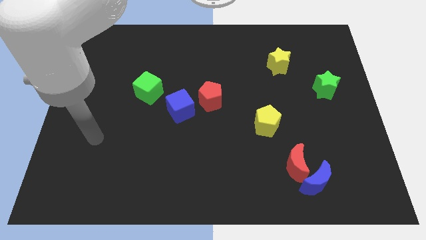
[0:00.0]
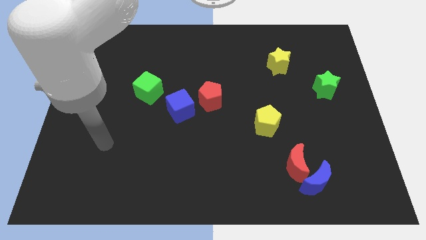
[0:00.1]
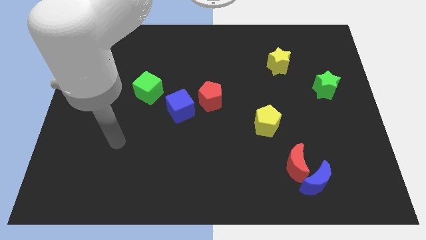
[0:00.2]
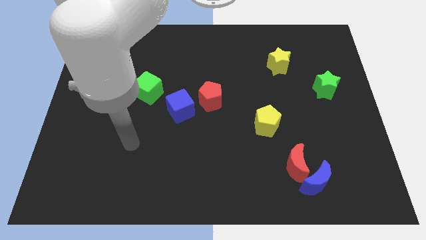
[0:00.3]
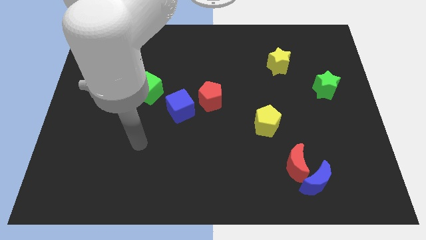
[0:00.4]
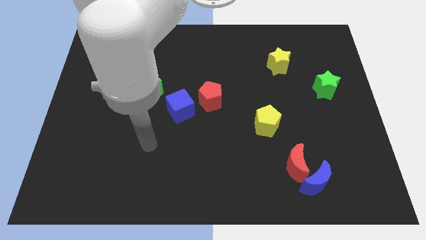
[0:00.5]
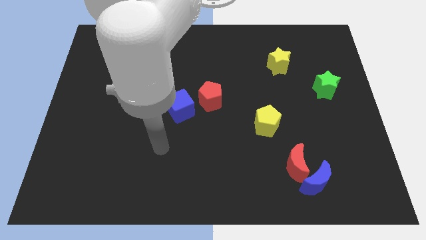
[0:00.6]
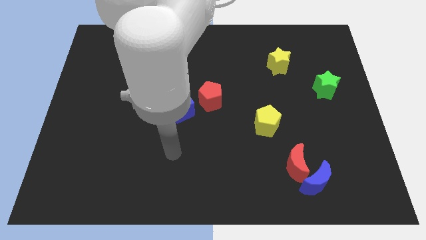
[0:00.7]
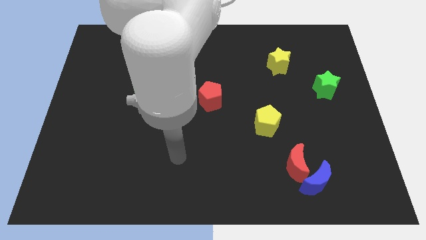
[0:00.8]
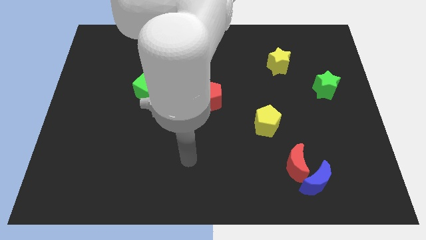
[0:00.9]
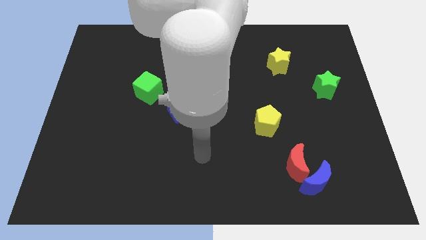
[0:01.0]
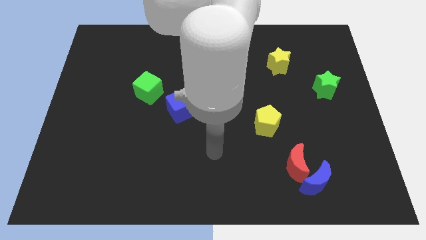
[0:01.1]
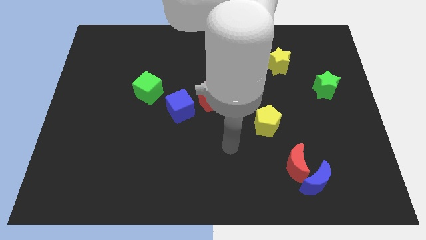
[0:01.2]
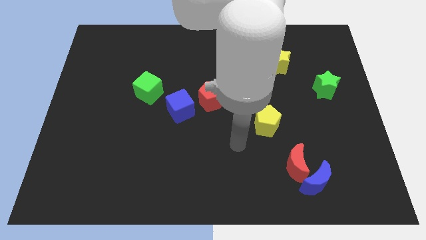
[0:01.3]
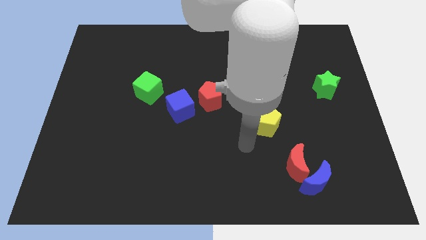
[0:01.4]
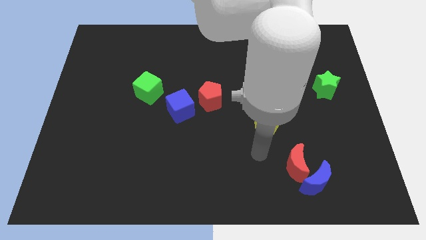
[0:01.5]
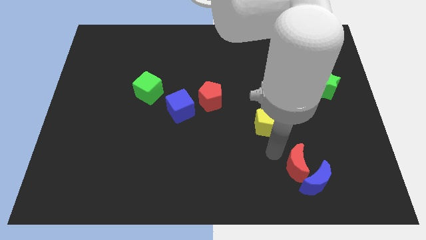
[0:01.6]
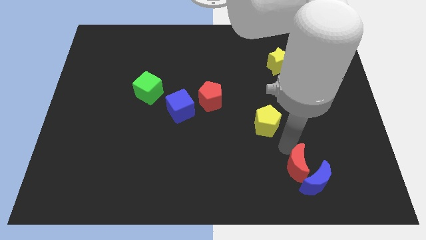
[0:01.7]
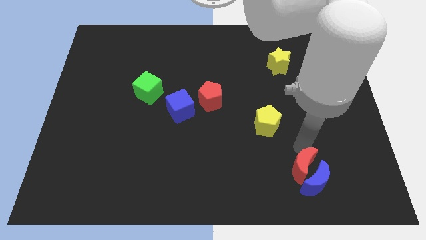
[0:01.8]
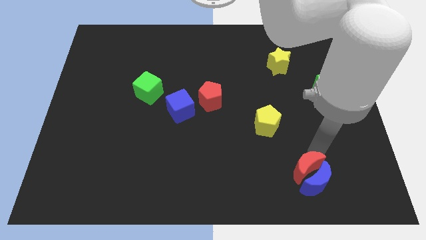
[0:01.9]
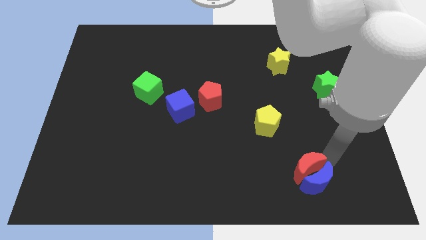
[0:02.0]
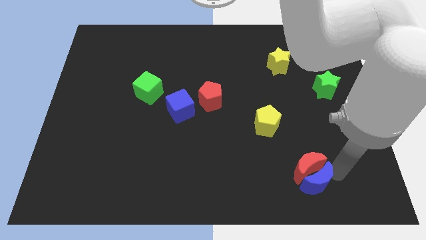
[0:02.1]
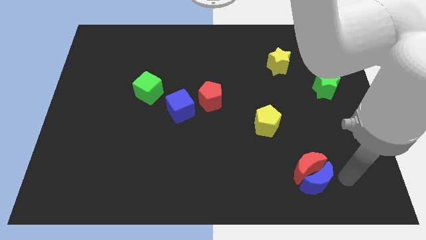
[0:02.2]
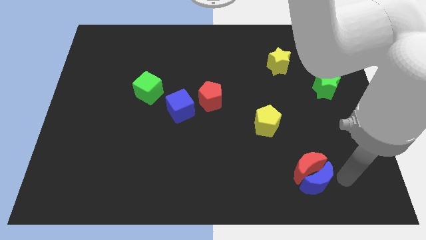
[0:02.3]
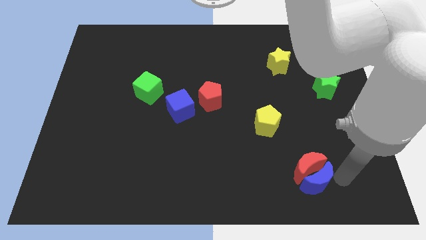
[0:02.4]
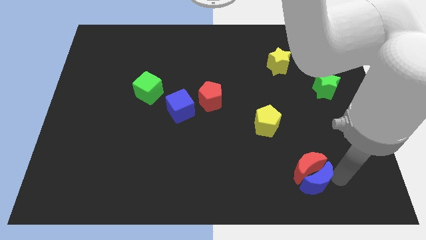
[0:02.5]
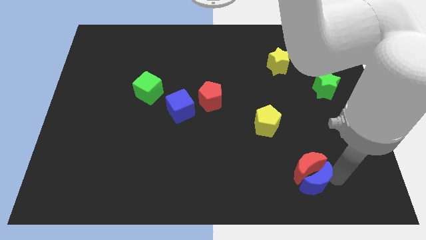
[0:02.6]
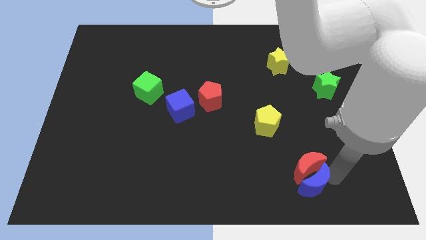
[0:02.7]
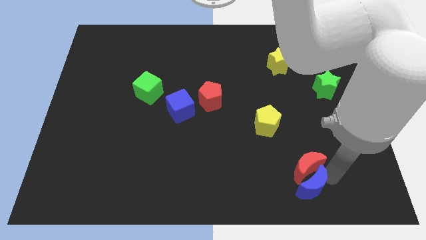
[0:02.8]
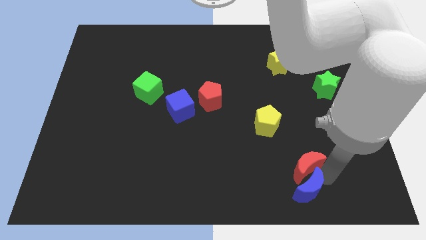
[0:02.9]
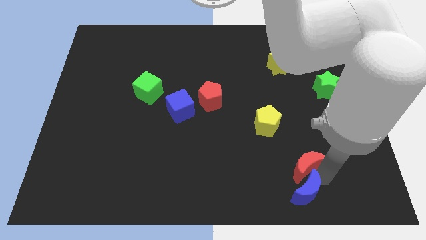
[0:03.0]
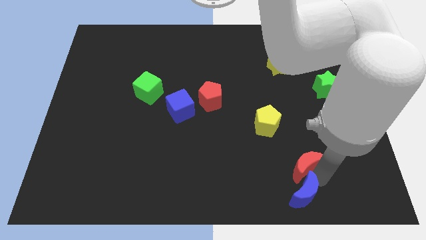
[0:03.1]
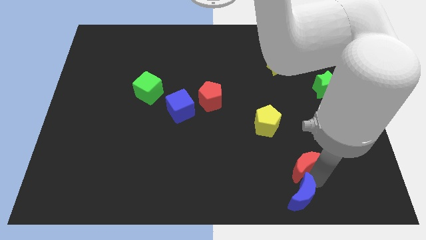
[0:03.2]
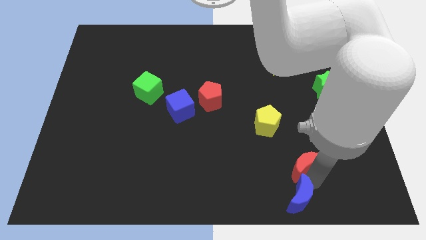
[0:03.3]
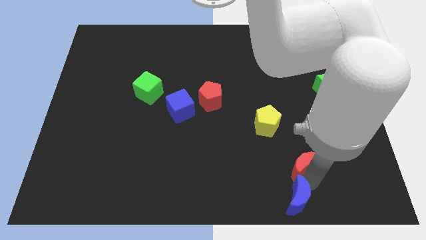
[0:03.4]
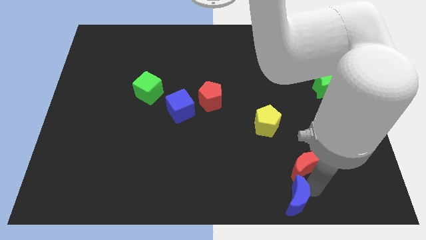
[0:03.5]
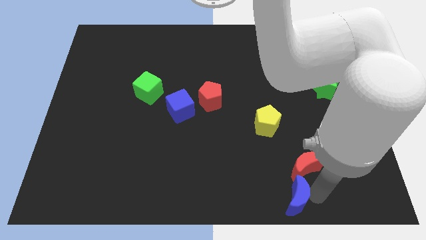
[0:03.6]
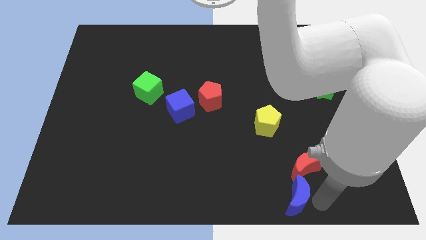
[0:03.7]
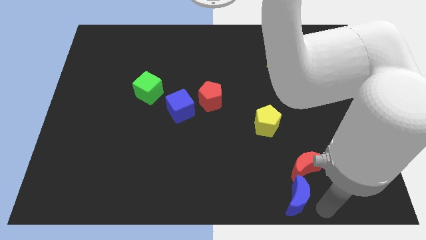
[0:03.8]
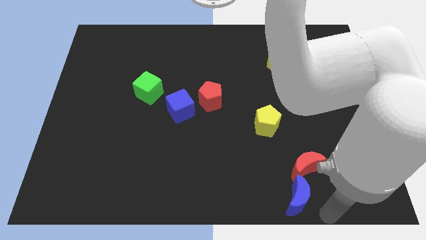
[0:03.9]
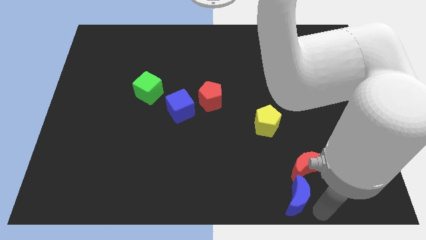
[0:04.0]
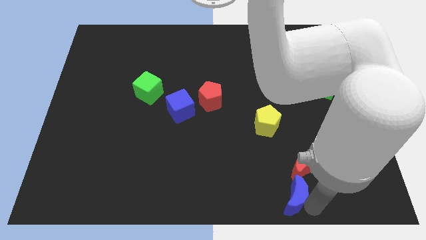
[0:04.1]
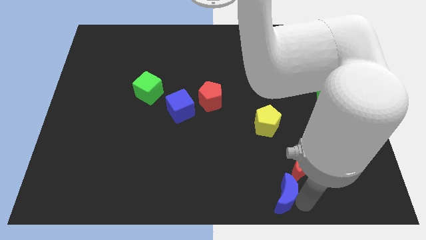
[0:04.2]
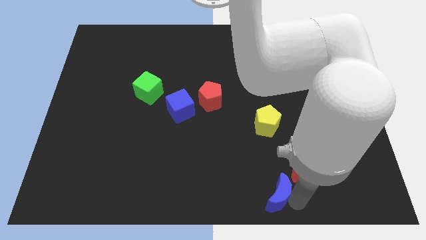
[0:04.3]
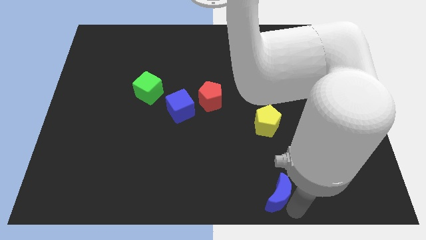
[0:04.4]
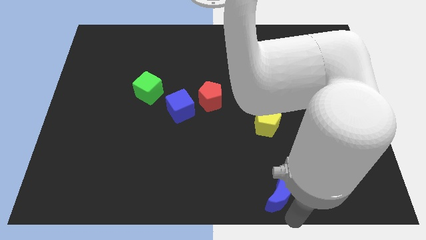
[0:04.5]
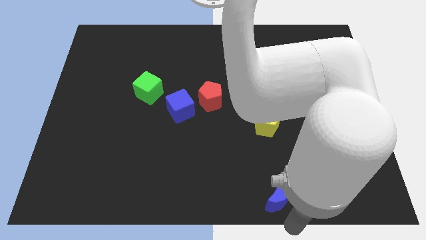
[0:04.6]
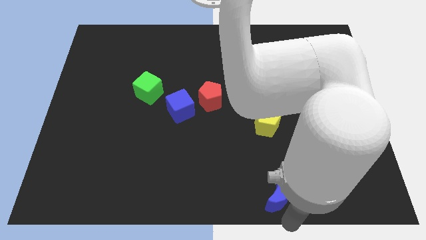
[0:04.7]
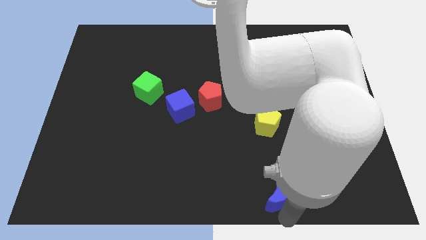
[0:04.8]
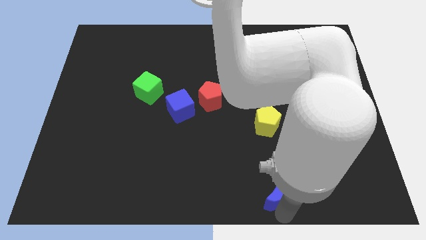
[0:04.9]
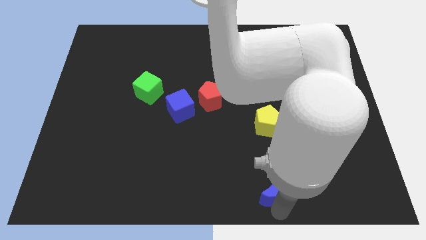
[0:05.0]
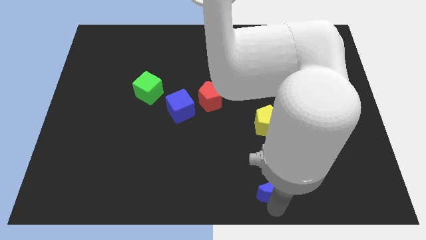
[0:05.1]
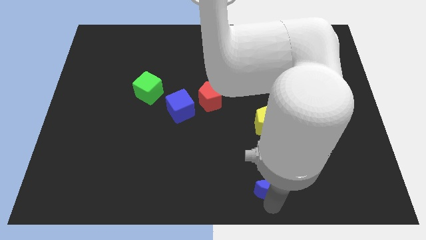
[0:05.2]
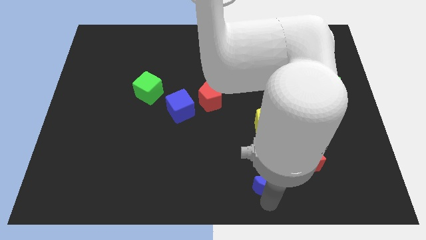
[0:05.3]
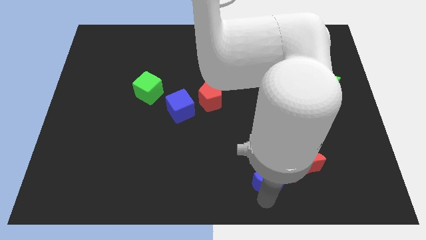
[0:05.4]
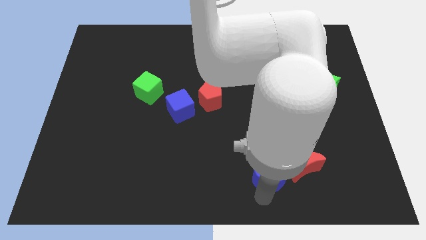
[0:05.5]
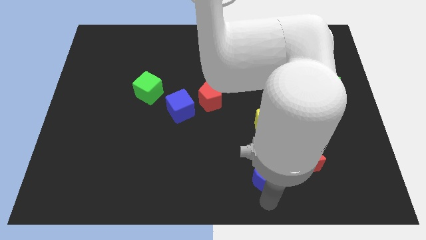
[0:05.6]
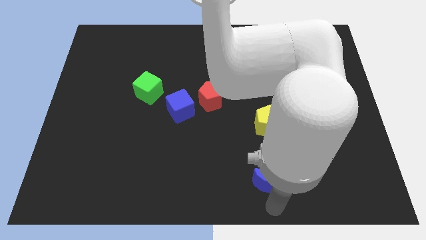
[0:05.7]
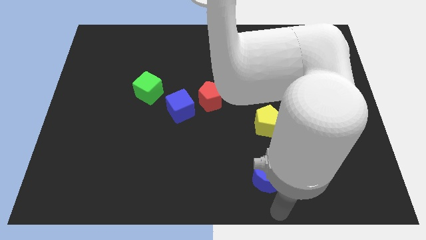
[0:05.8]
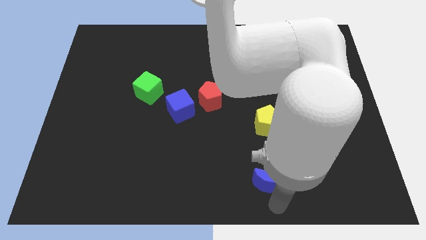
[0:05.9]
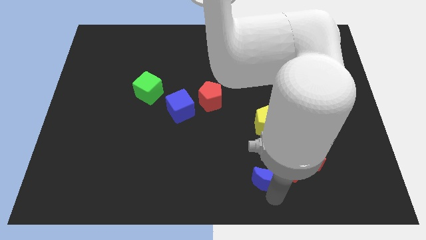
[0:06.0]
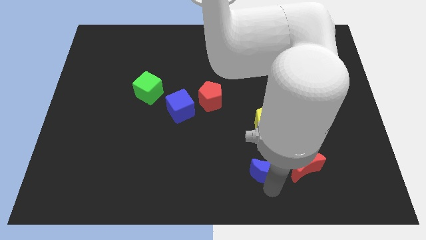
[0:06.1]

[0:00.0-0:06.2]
push the blue moon slightly diagonally up and left

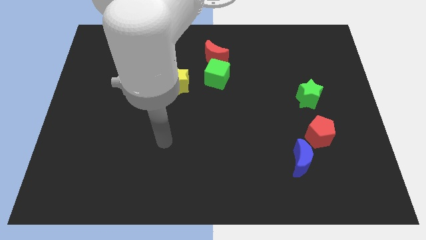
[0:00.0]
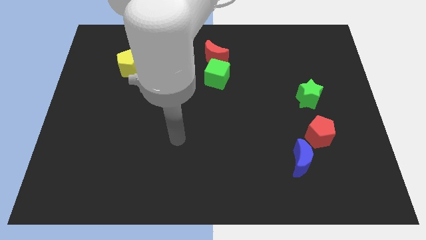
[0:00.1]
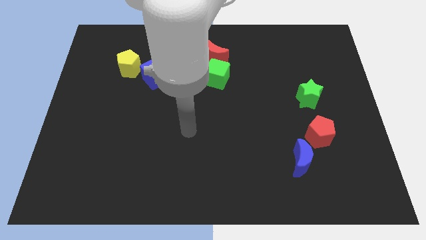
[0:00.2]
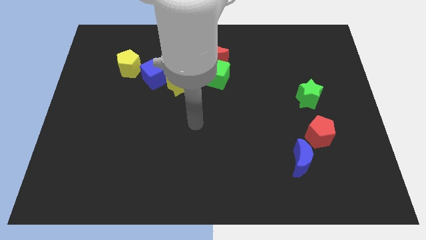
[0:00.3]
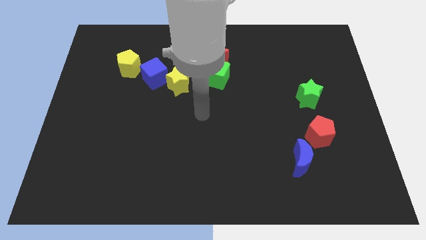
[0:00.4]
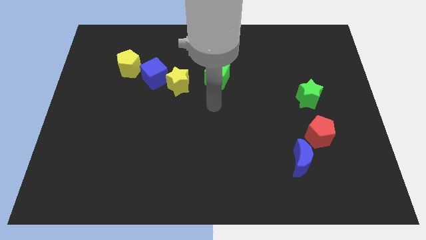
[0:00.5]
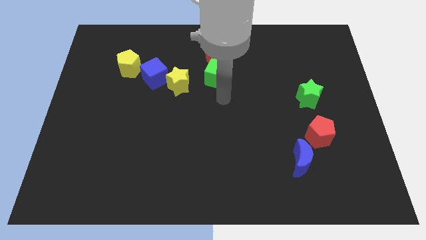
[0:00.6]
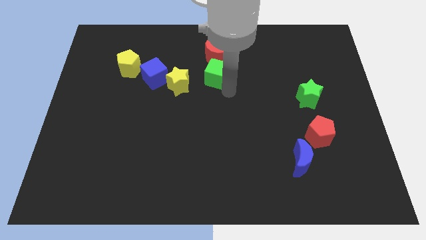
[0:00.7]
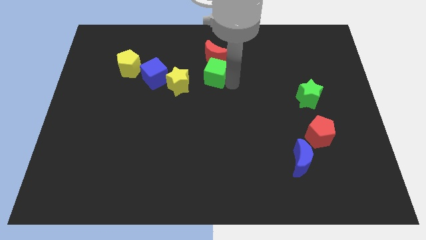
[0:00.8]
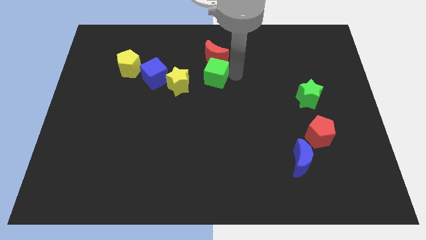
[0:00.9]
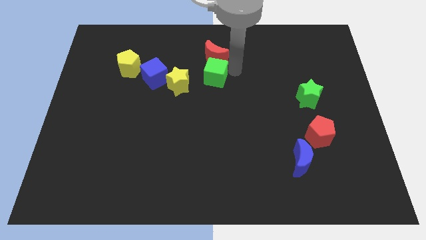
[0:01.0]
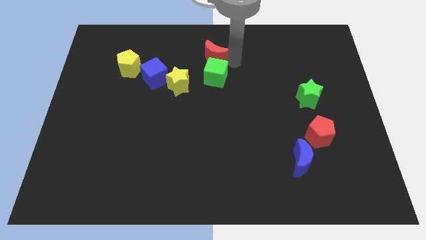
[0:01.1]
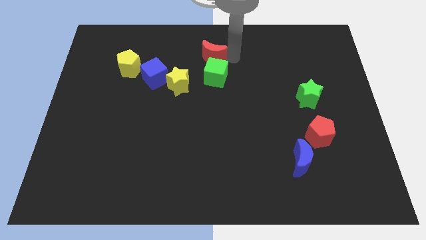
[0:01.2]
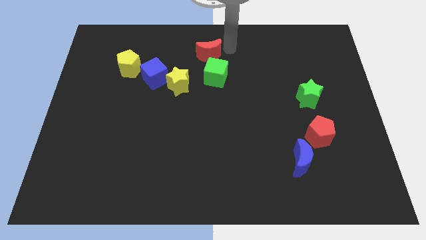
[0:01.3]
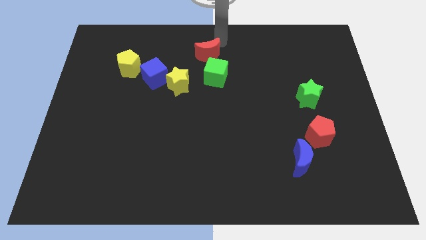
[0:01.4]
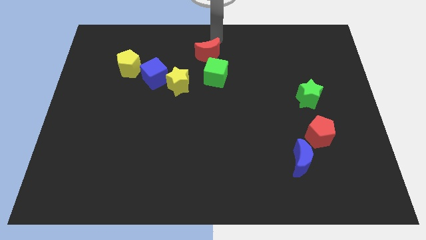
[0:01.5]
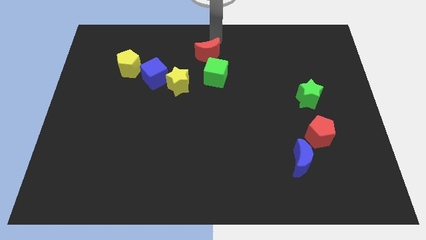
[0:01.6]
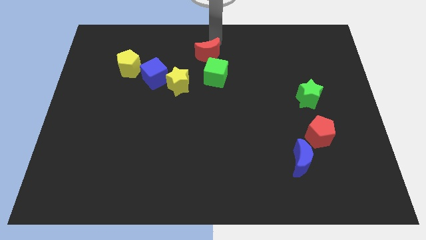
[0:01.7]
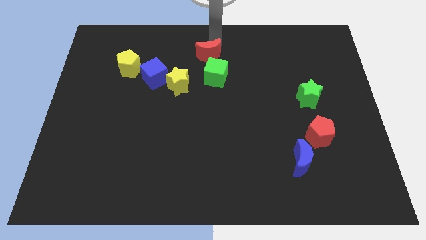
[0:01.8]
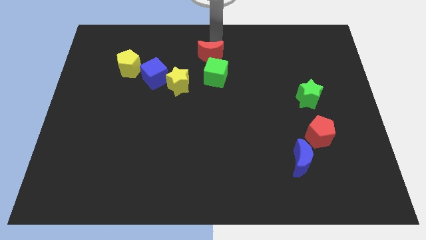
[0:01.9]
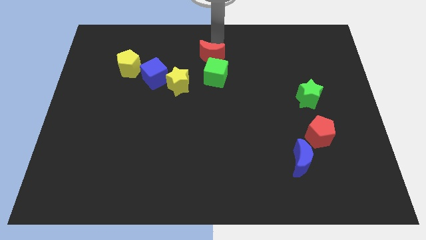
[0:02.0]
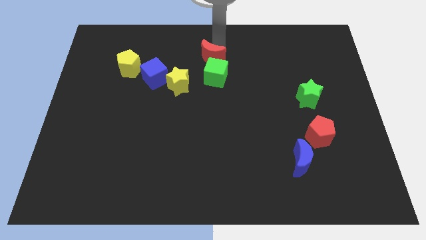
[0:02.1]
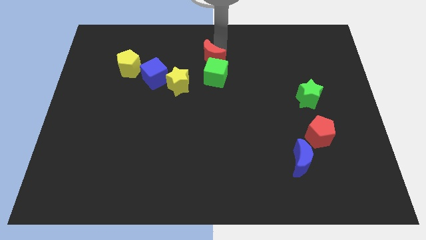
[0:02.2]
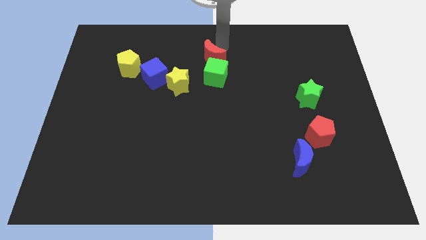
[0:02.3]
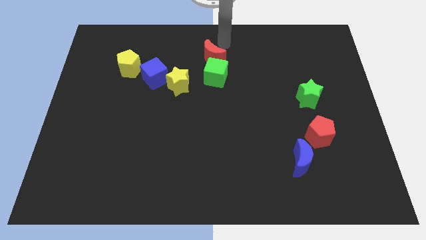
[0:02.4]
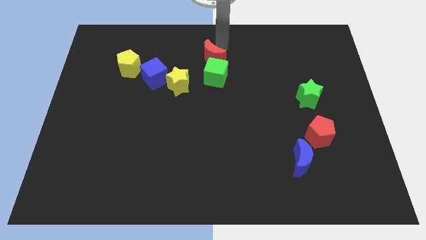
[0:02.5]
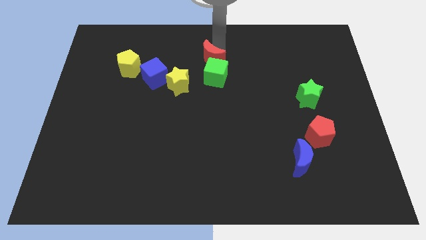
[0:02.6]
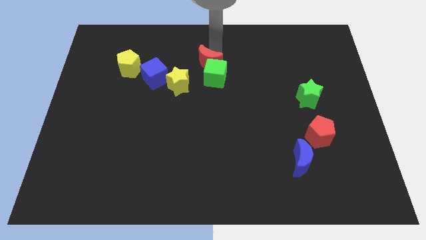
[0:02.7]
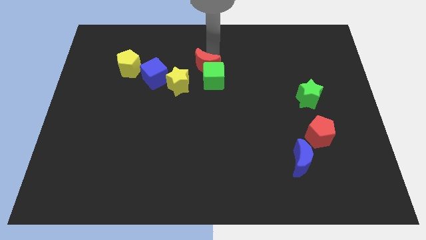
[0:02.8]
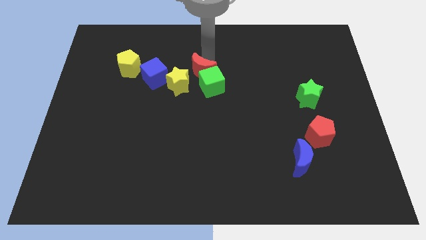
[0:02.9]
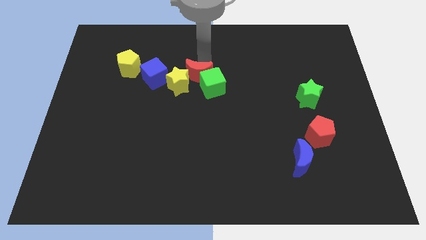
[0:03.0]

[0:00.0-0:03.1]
slightly move the red moon down and left
